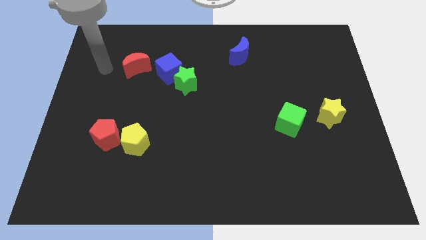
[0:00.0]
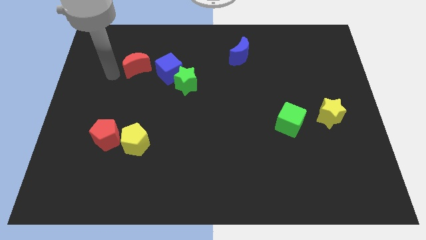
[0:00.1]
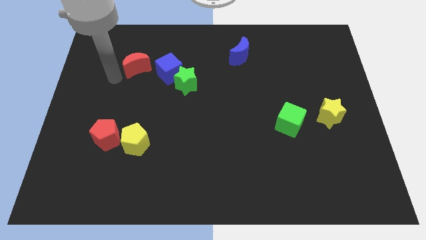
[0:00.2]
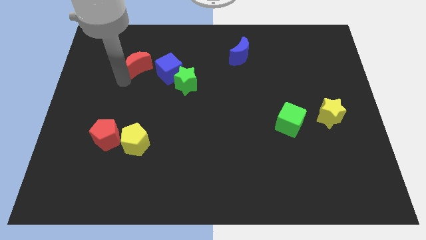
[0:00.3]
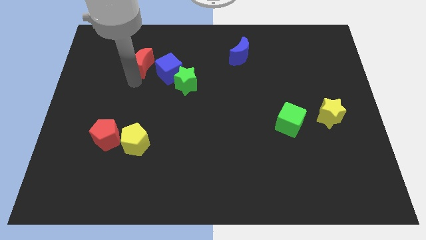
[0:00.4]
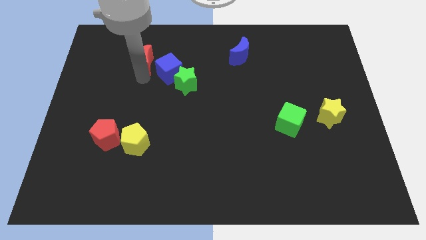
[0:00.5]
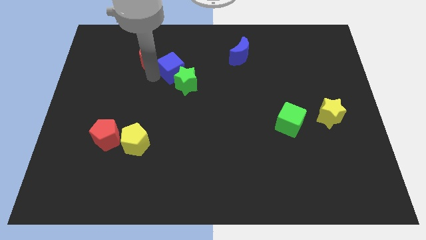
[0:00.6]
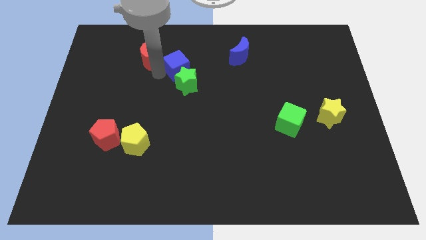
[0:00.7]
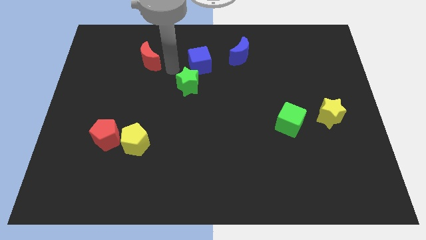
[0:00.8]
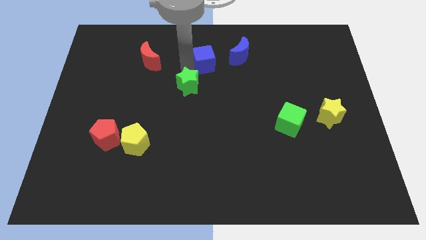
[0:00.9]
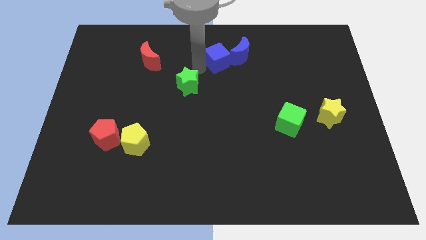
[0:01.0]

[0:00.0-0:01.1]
move the green star away from the blue cube

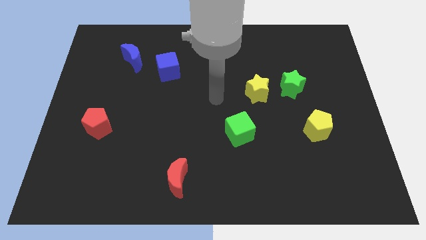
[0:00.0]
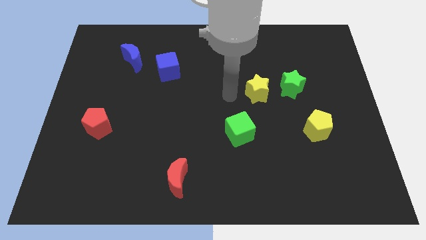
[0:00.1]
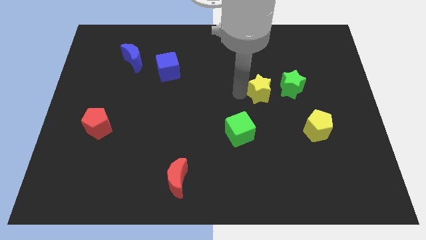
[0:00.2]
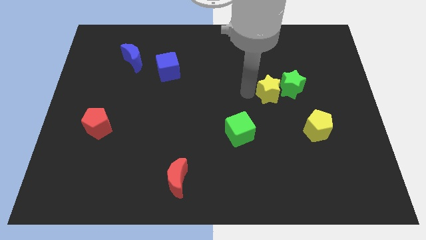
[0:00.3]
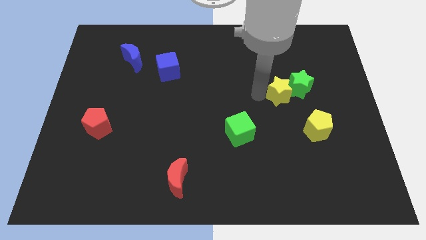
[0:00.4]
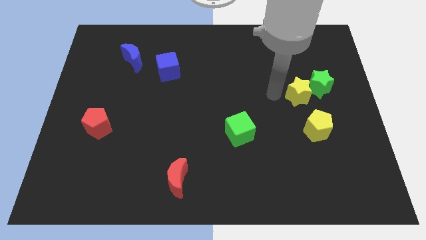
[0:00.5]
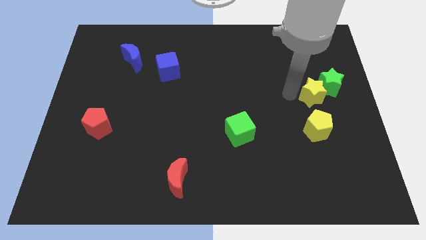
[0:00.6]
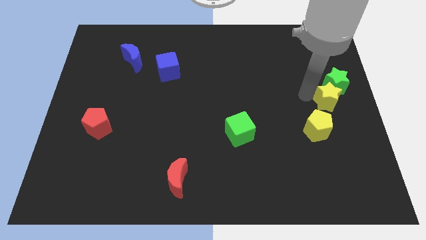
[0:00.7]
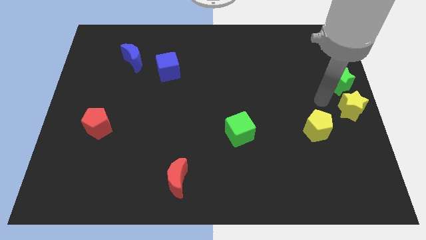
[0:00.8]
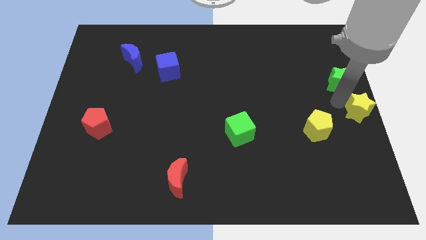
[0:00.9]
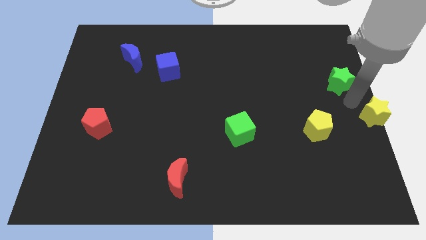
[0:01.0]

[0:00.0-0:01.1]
separate the green star from the yellow star

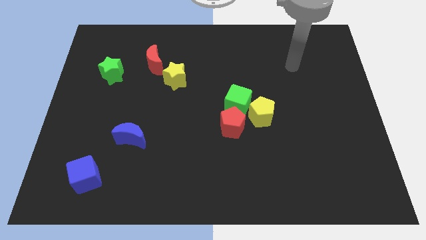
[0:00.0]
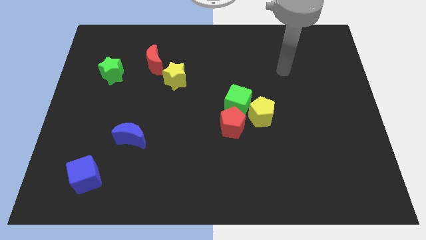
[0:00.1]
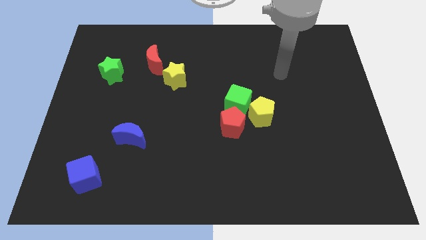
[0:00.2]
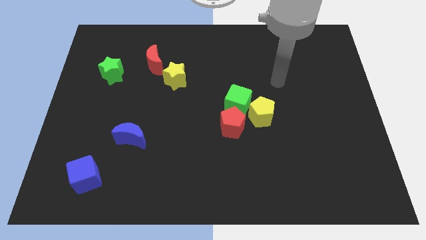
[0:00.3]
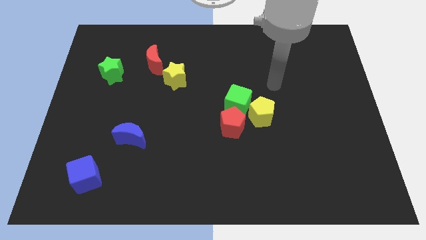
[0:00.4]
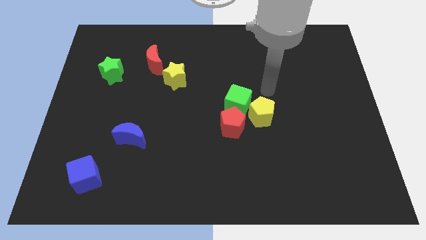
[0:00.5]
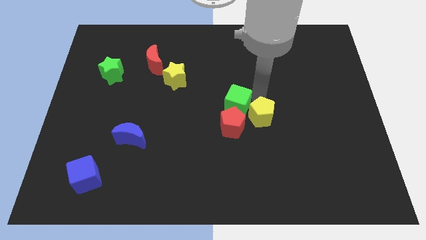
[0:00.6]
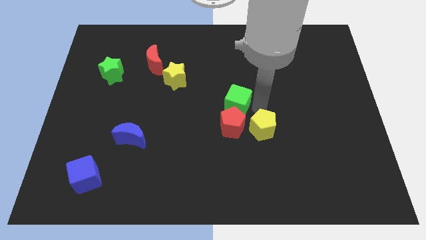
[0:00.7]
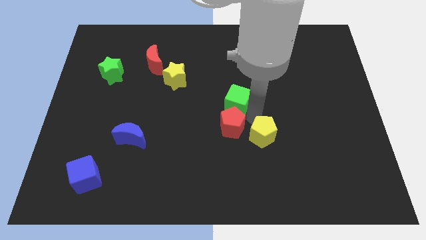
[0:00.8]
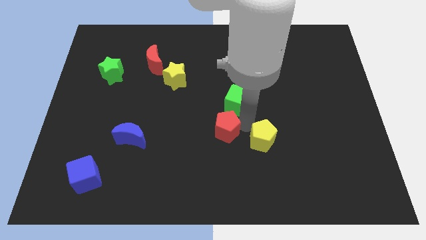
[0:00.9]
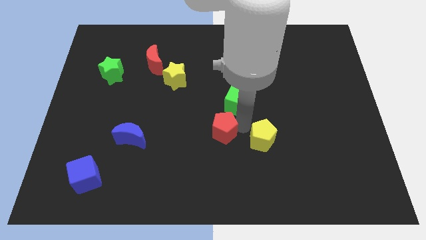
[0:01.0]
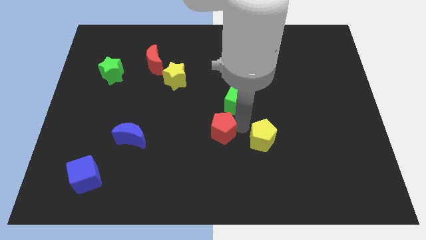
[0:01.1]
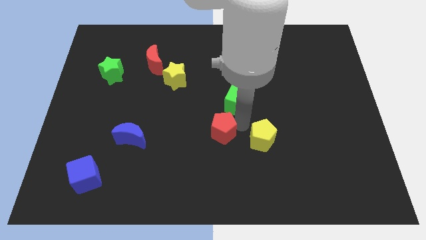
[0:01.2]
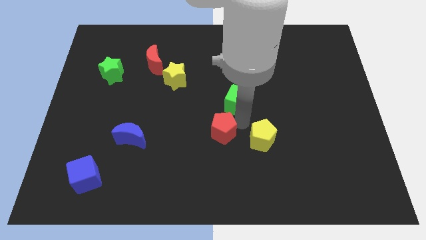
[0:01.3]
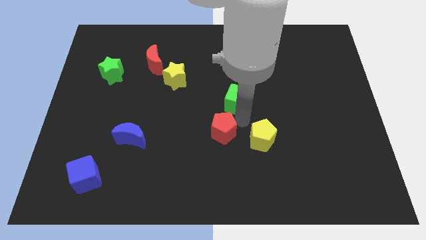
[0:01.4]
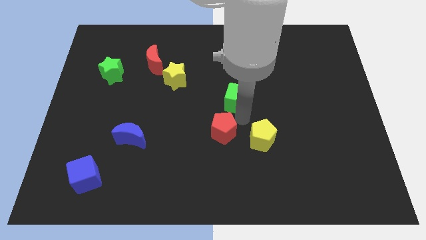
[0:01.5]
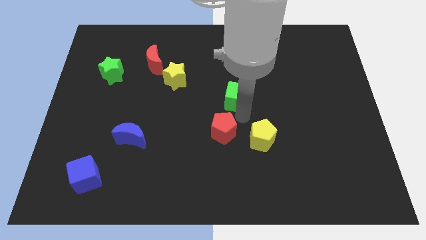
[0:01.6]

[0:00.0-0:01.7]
move the green cube away from the yellow pentagon and red pentagon

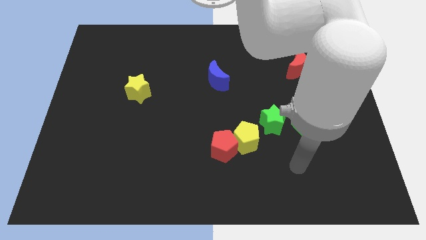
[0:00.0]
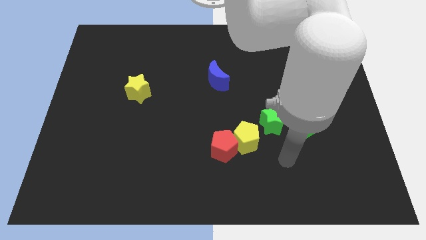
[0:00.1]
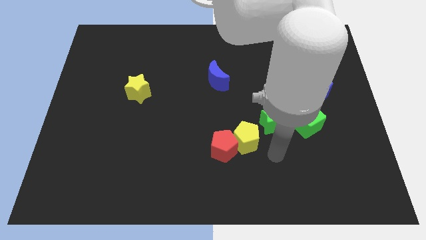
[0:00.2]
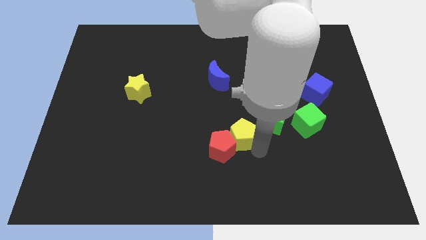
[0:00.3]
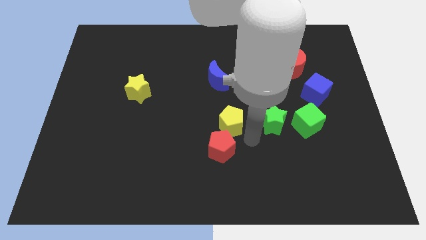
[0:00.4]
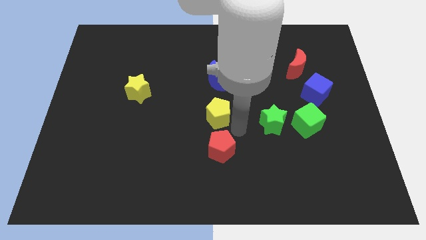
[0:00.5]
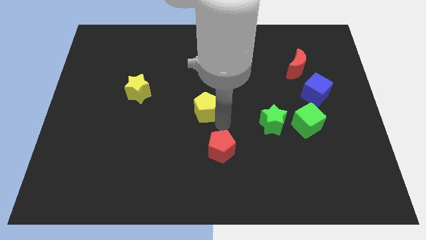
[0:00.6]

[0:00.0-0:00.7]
move the red pentagon away from the yellow pentagon

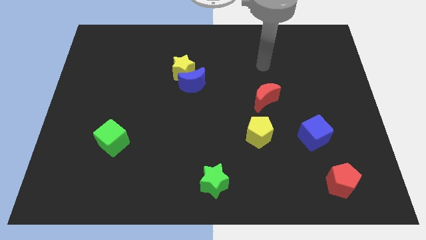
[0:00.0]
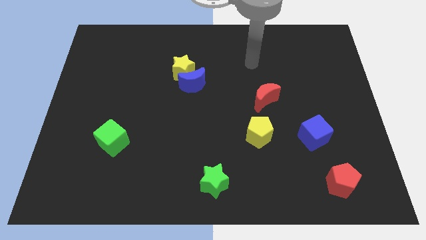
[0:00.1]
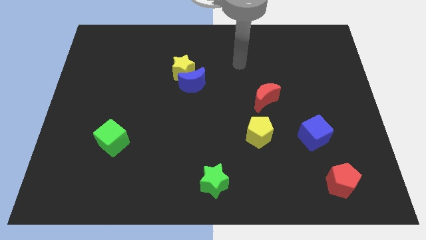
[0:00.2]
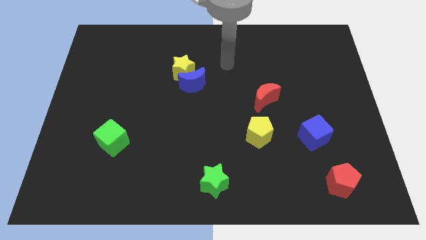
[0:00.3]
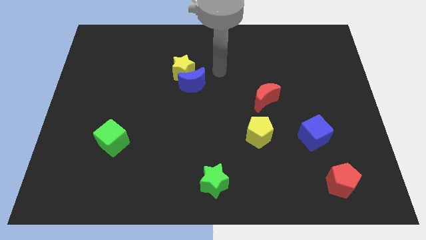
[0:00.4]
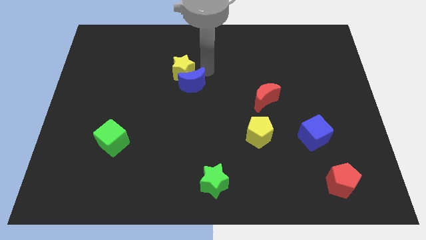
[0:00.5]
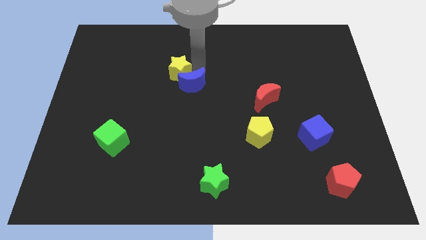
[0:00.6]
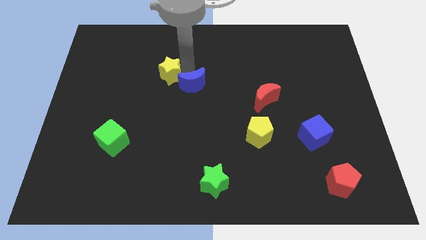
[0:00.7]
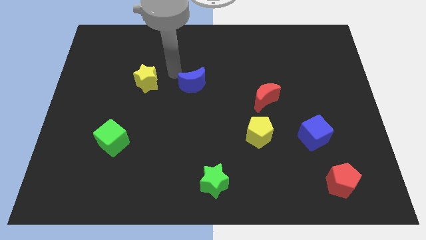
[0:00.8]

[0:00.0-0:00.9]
pull the blue moon apart from the yellow star

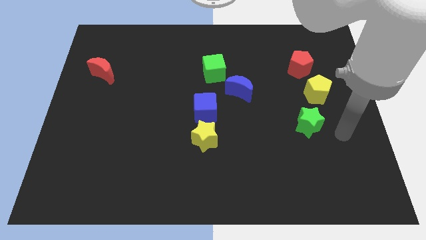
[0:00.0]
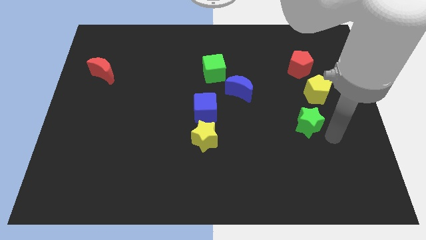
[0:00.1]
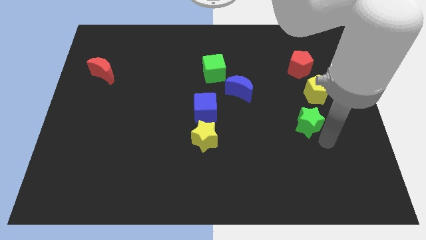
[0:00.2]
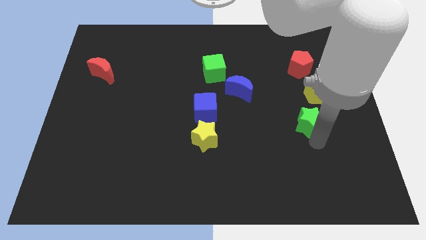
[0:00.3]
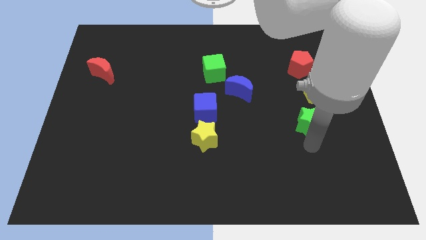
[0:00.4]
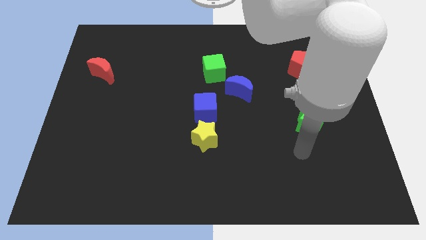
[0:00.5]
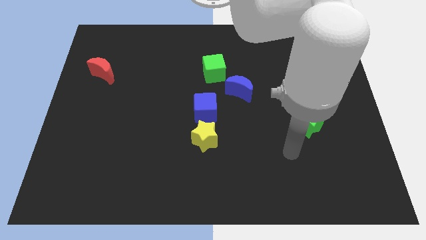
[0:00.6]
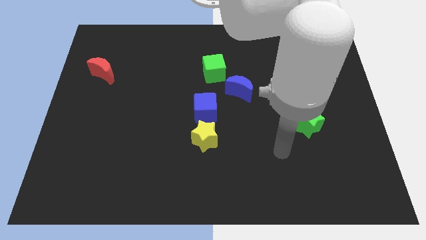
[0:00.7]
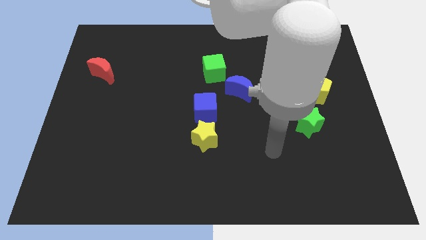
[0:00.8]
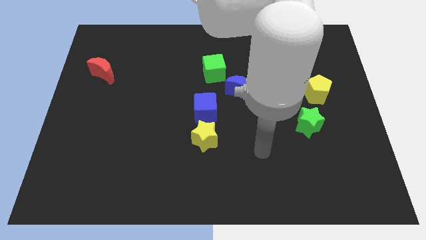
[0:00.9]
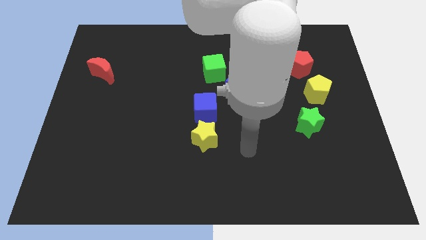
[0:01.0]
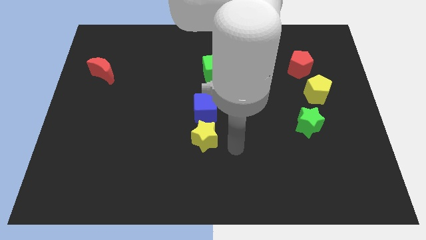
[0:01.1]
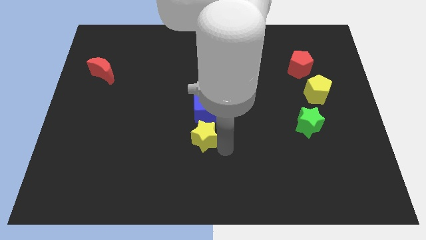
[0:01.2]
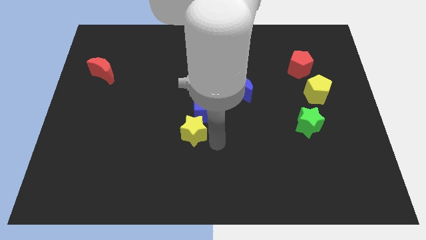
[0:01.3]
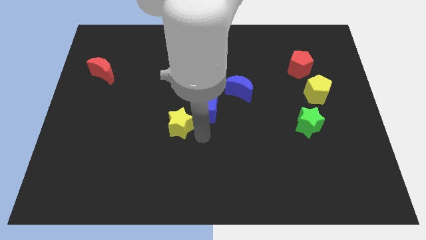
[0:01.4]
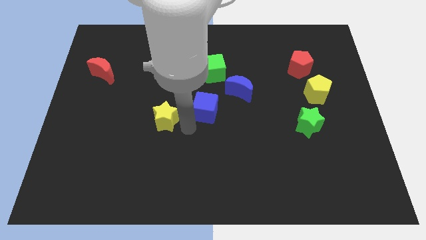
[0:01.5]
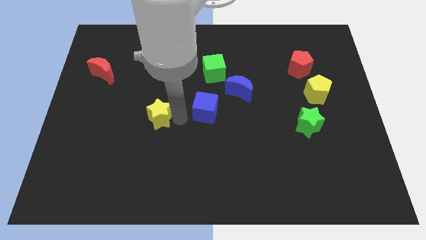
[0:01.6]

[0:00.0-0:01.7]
pull the blue cube apart from the yellow star

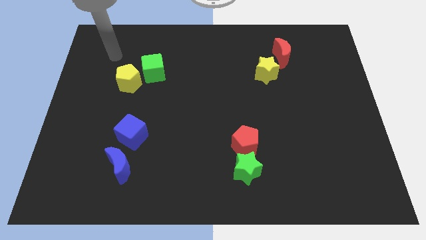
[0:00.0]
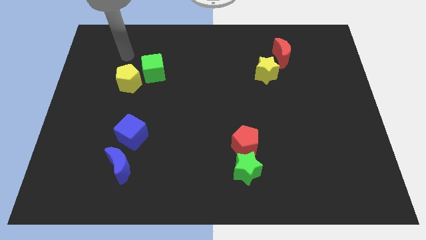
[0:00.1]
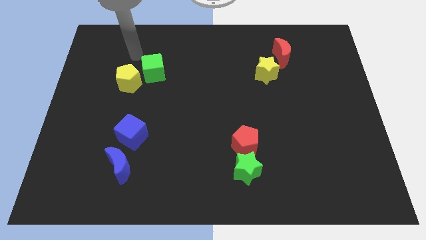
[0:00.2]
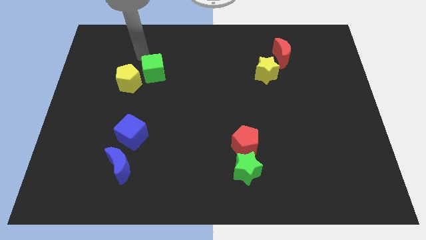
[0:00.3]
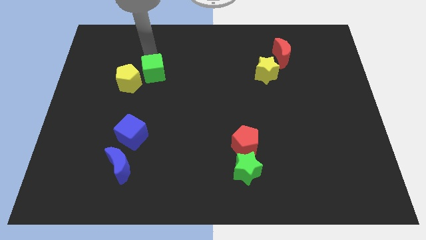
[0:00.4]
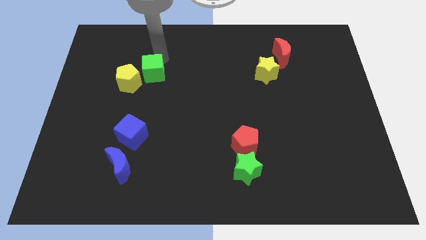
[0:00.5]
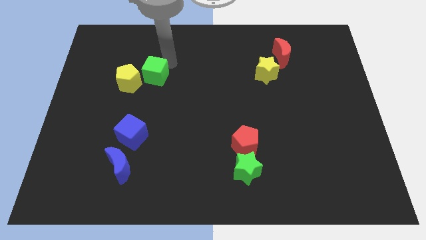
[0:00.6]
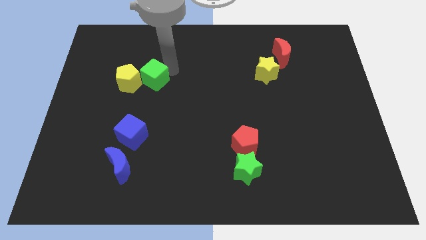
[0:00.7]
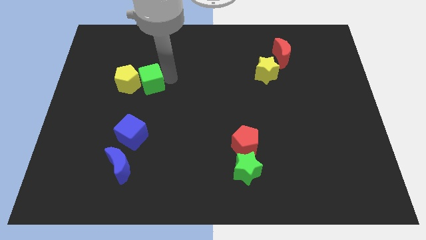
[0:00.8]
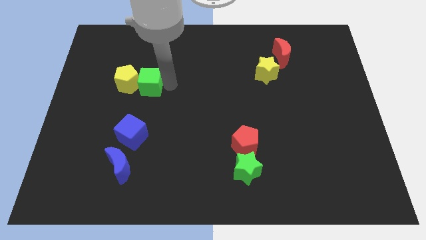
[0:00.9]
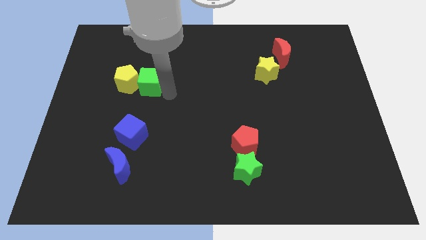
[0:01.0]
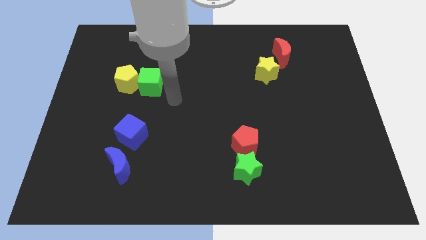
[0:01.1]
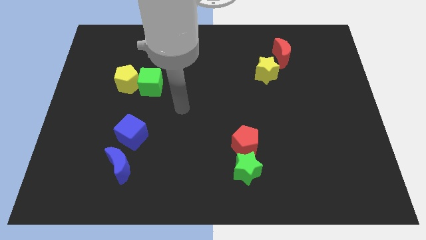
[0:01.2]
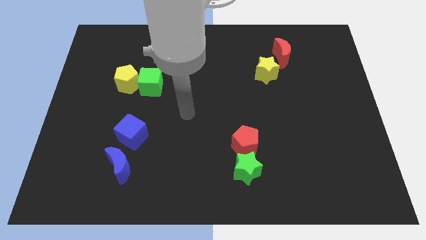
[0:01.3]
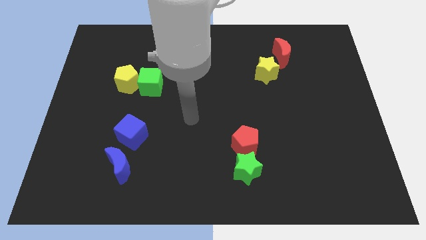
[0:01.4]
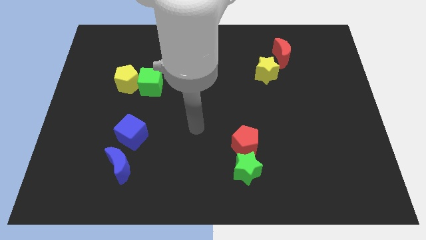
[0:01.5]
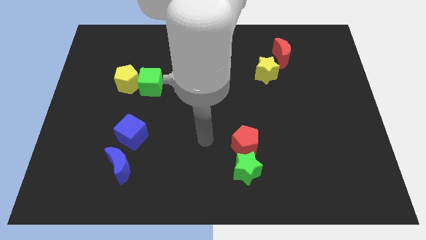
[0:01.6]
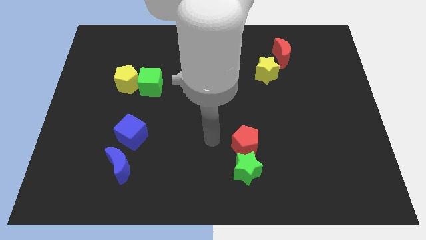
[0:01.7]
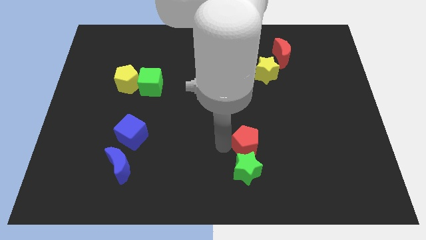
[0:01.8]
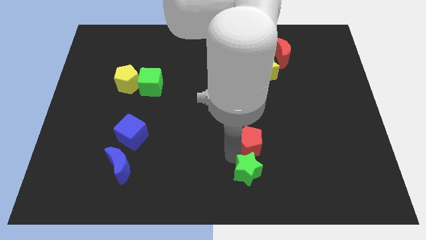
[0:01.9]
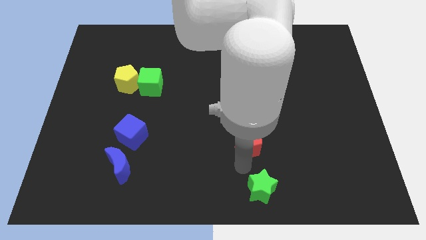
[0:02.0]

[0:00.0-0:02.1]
pull the red pentagon apart from the green star
